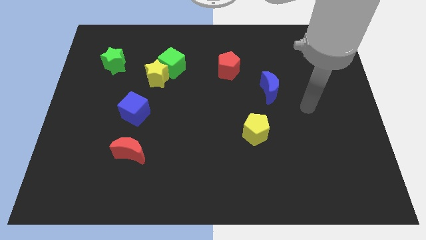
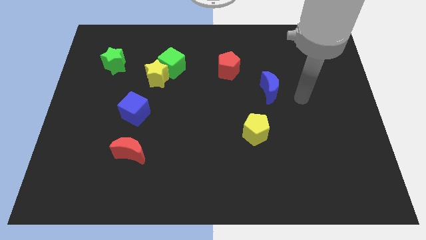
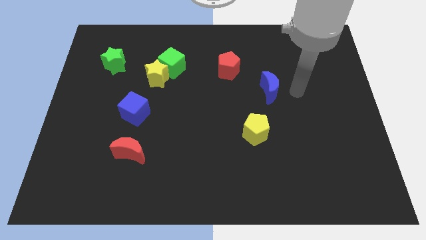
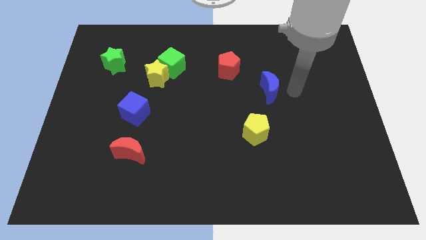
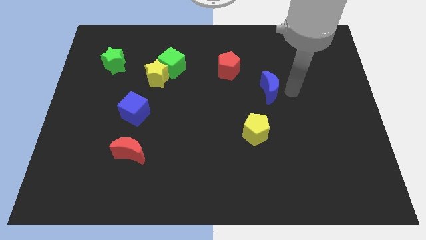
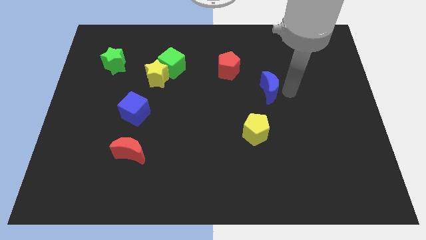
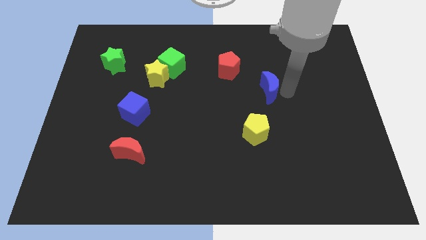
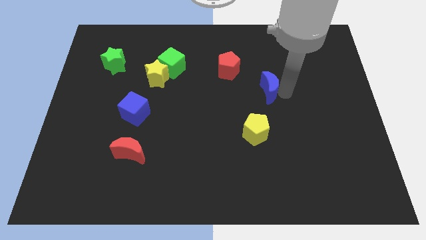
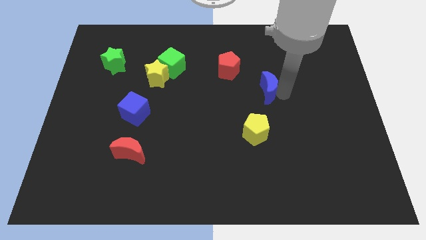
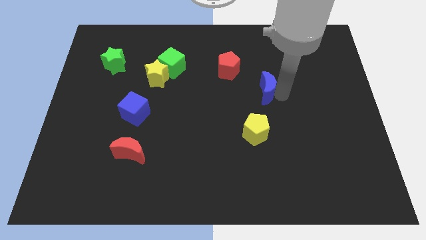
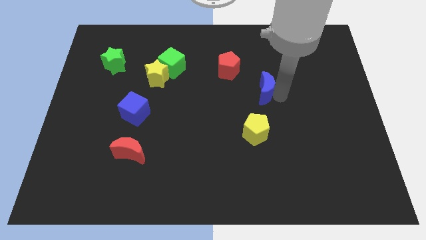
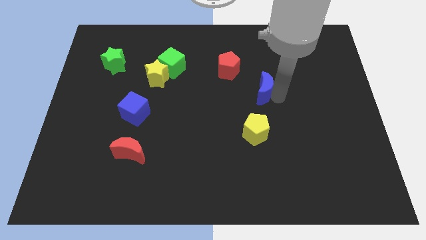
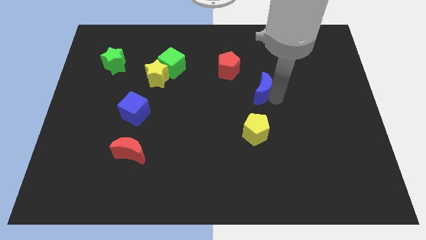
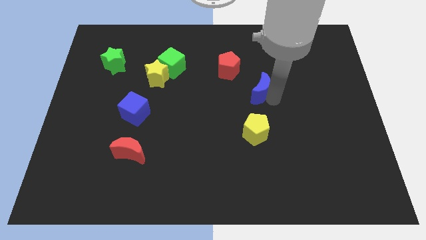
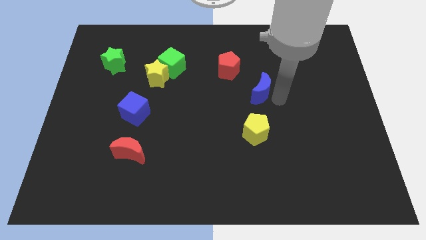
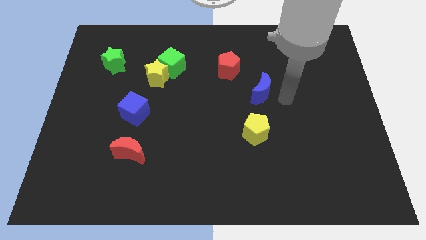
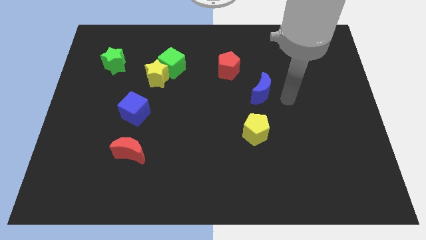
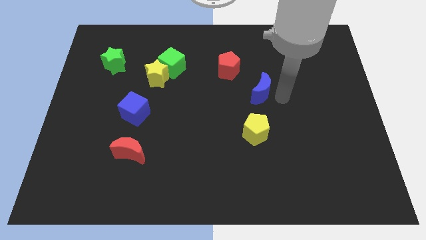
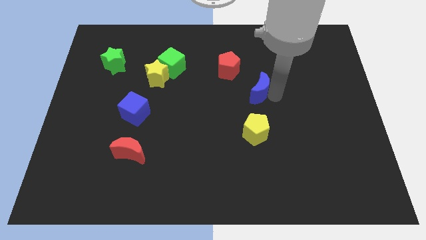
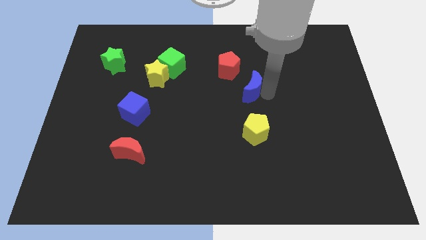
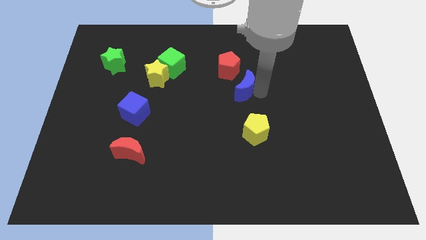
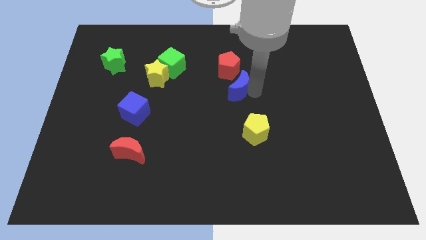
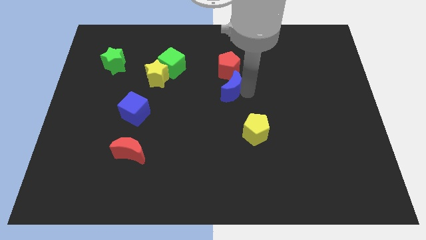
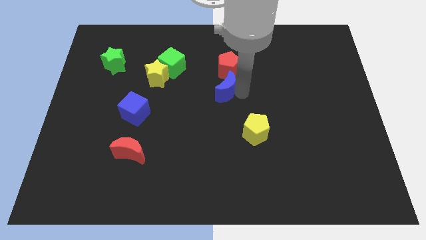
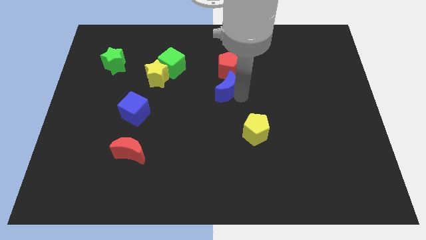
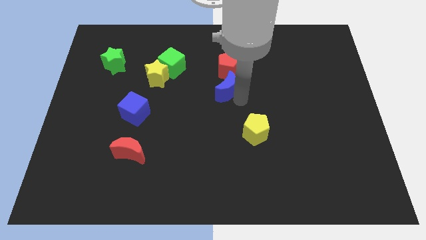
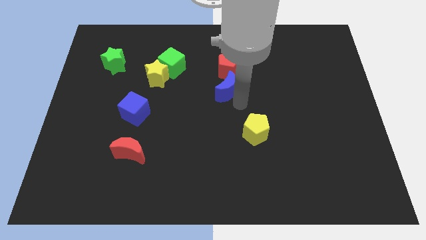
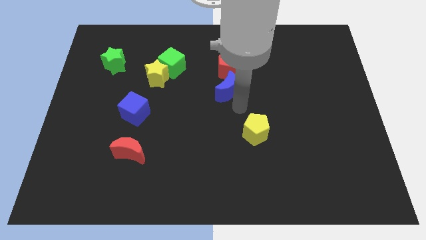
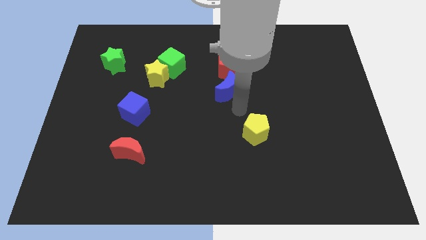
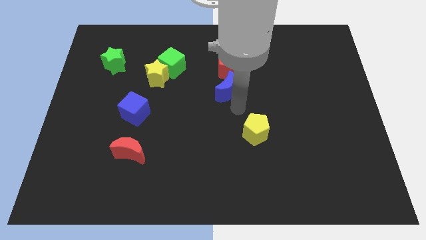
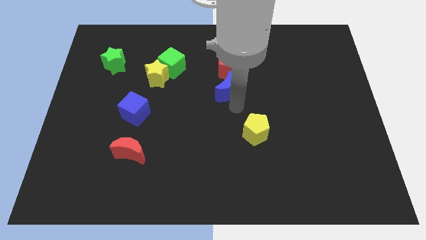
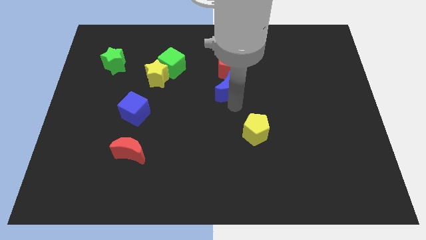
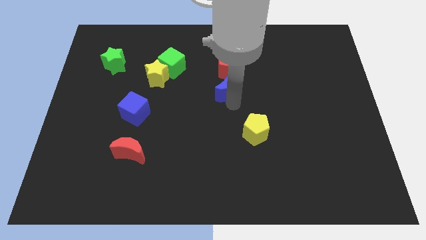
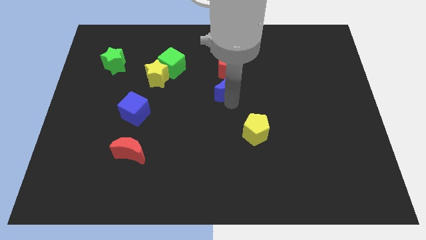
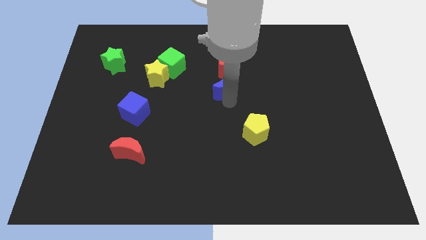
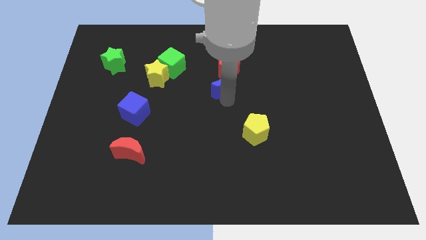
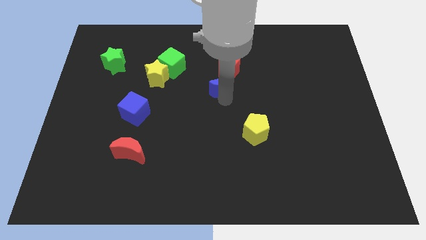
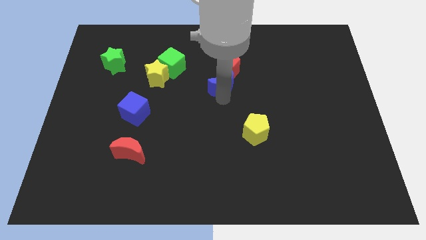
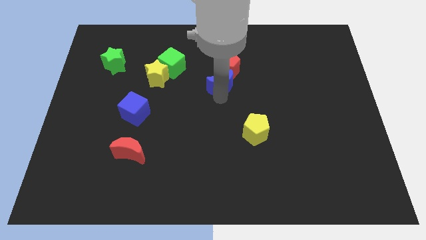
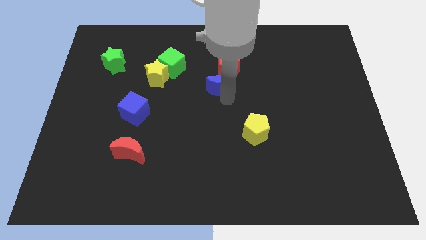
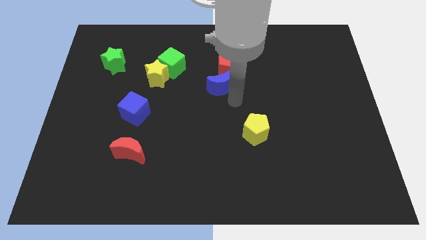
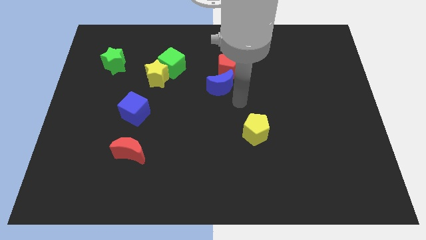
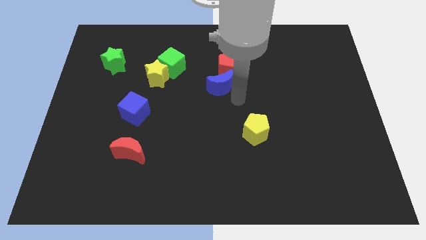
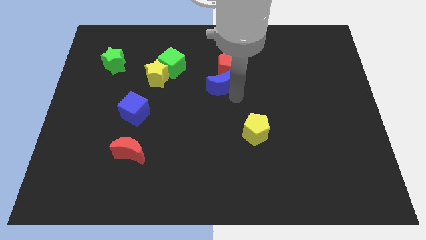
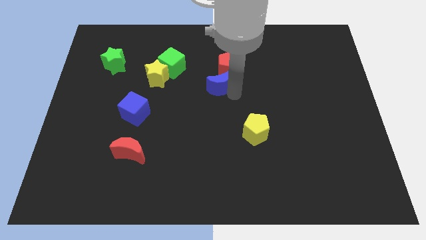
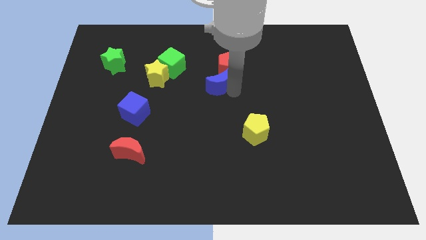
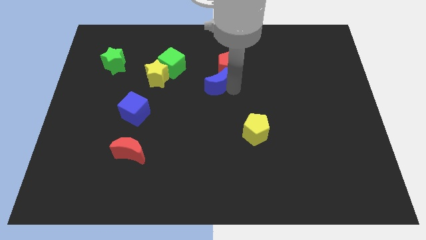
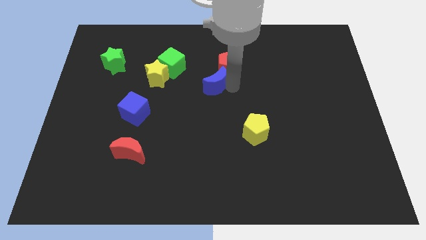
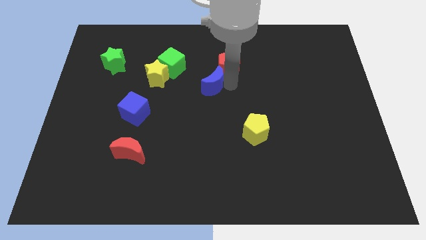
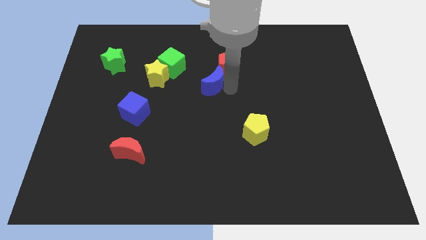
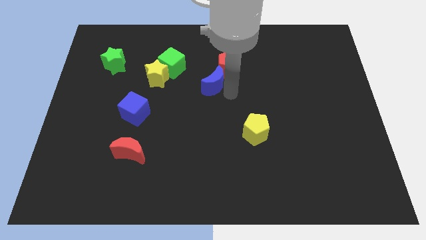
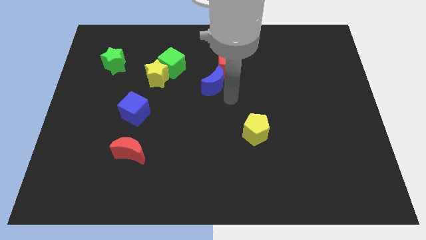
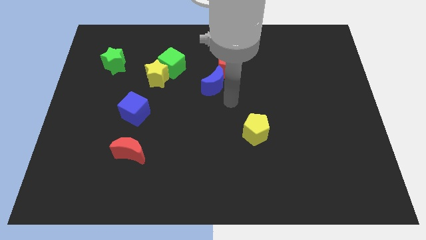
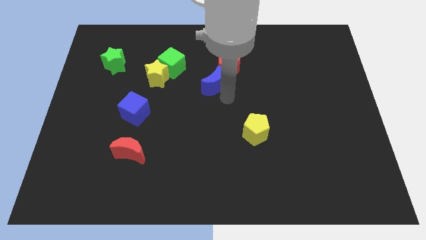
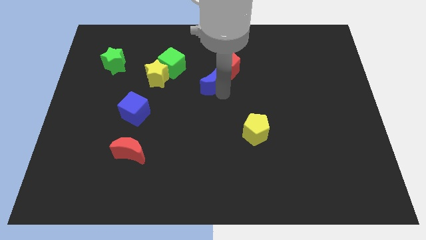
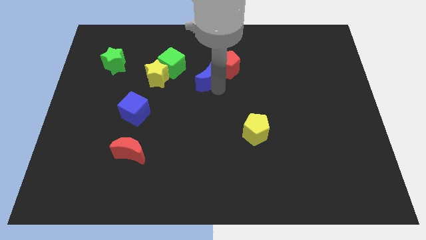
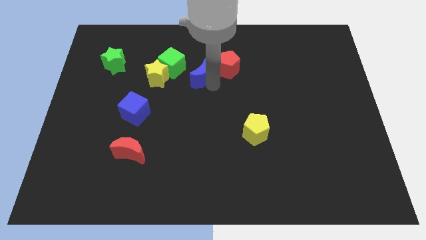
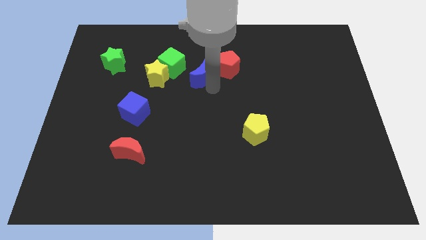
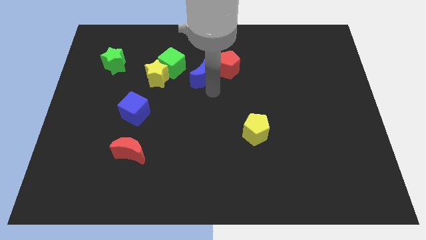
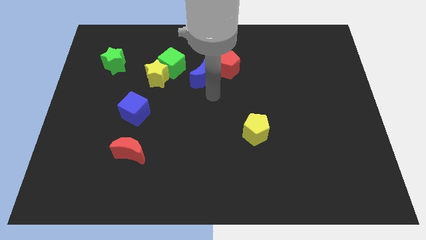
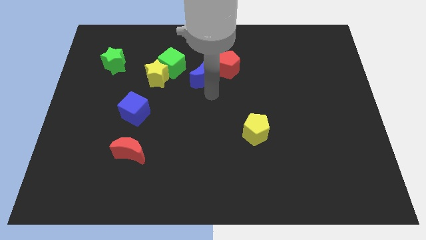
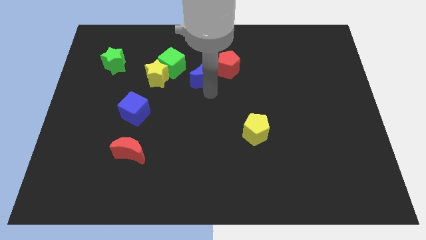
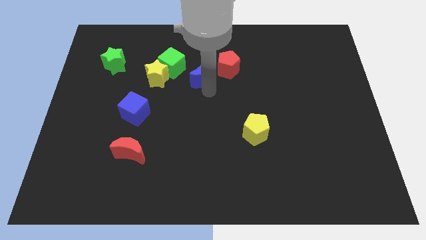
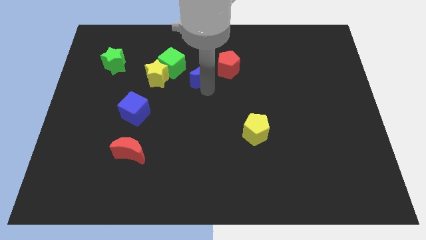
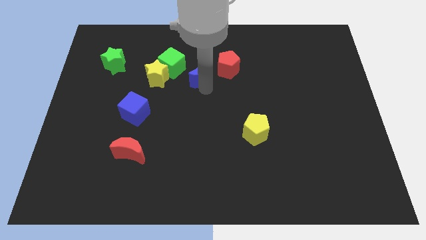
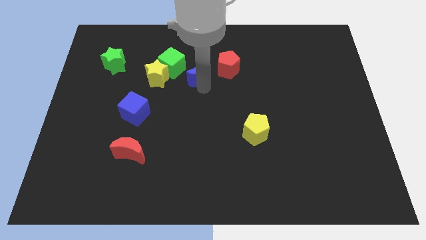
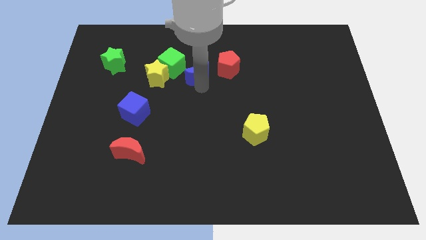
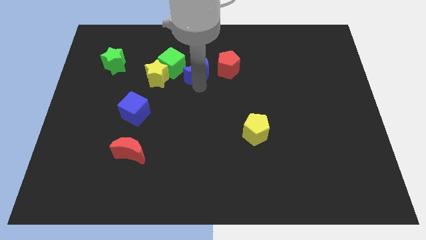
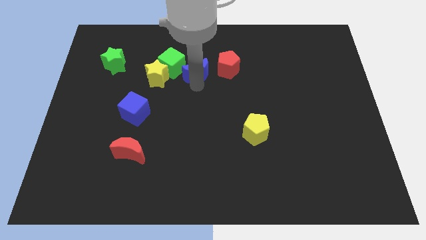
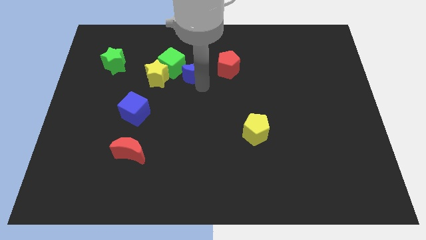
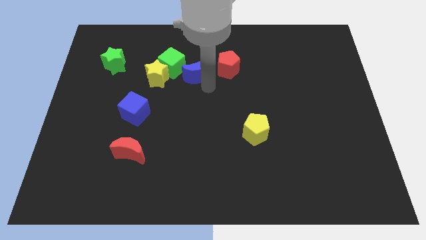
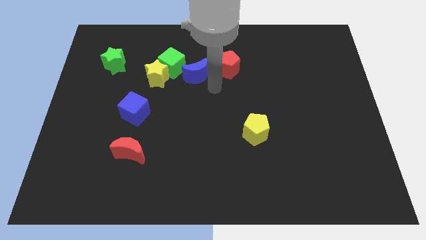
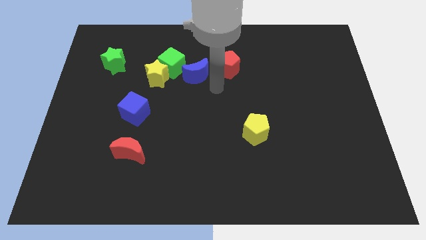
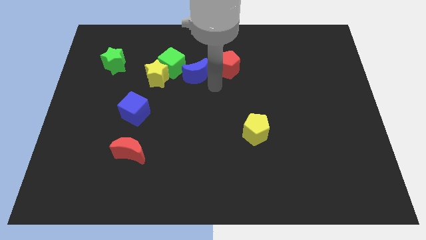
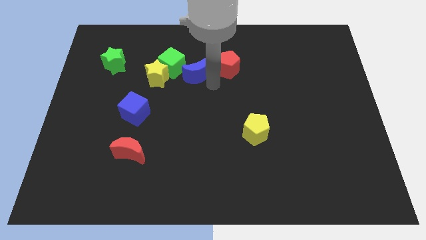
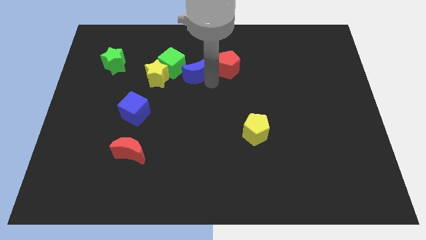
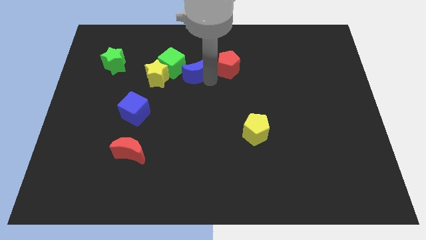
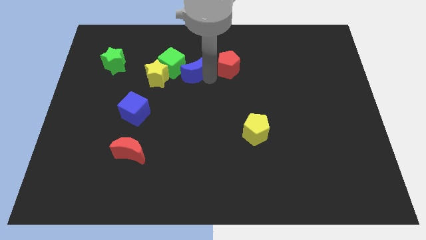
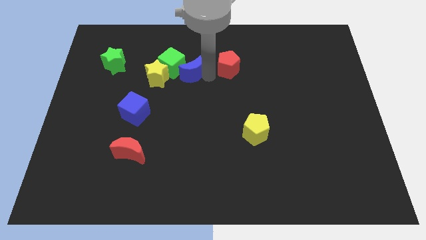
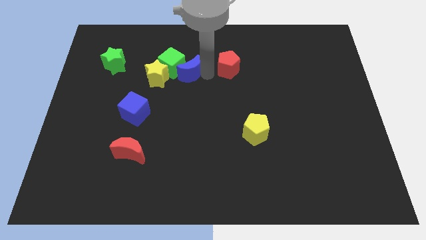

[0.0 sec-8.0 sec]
put the blue moon to the top right side of the yellow star
